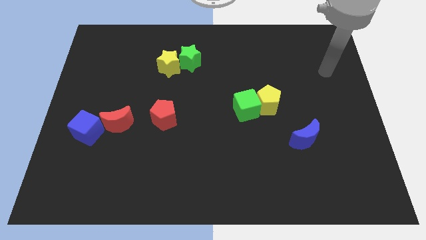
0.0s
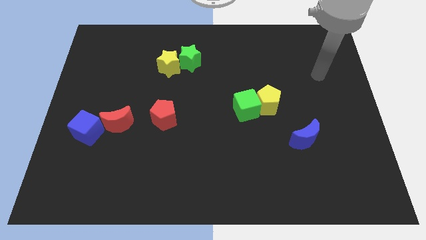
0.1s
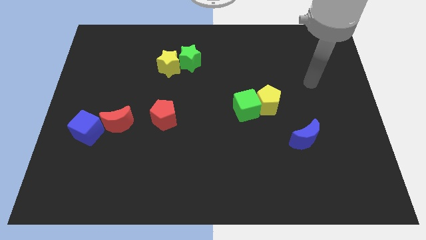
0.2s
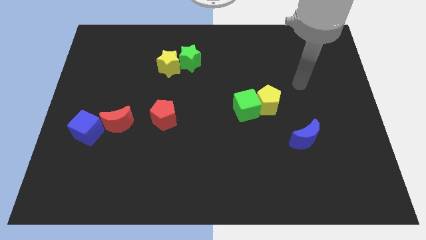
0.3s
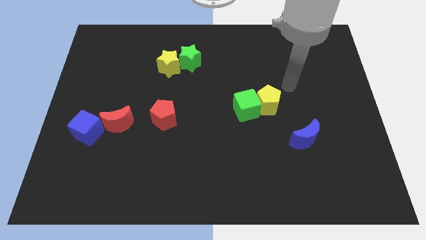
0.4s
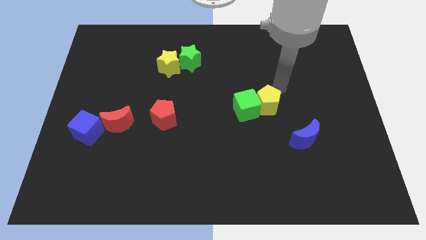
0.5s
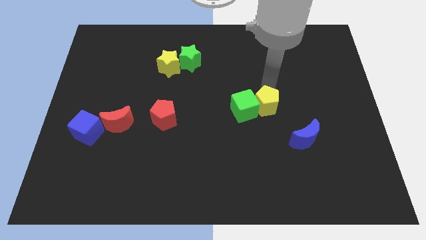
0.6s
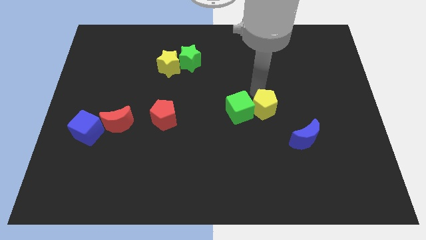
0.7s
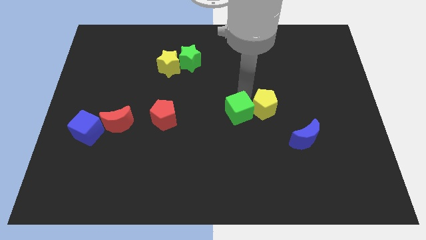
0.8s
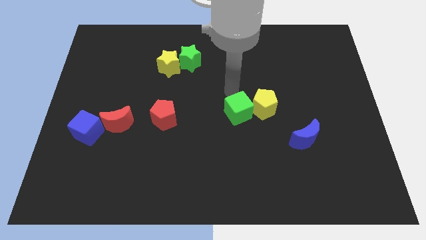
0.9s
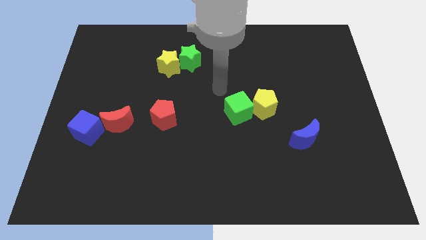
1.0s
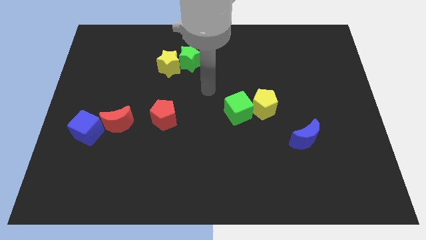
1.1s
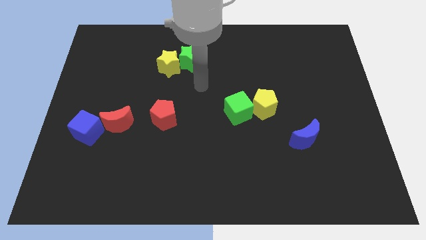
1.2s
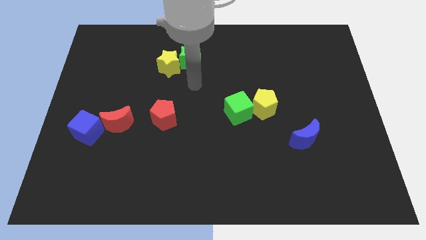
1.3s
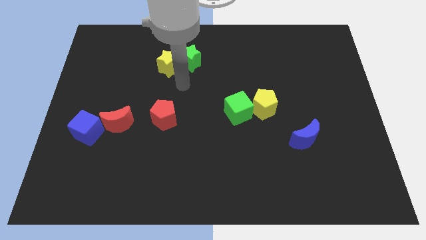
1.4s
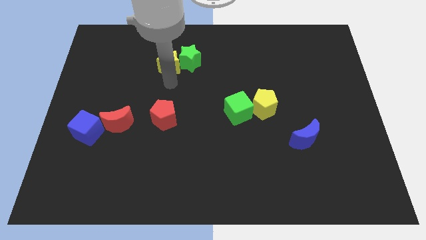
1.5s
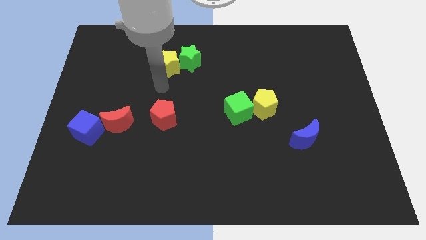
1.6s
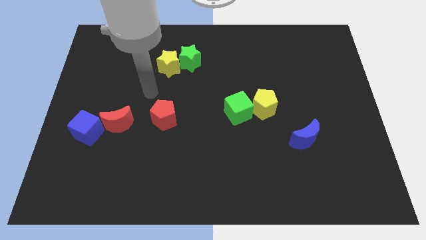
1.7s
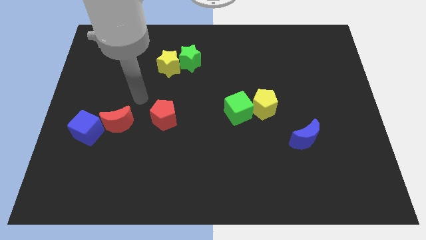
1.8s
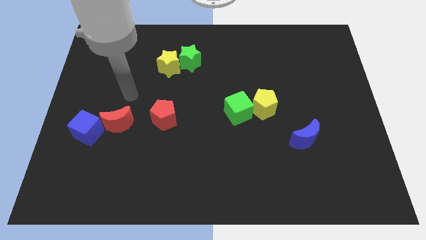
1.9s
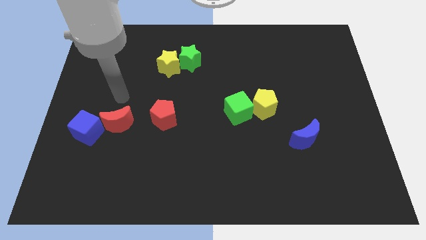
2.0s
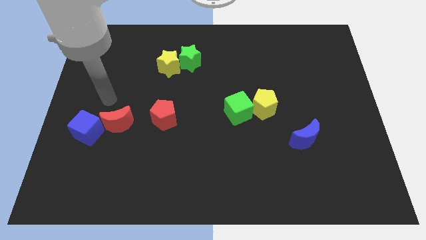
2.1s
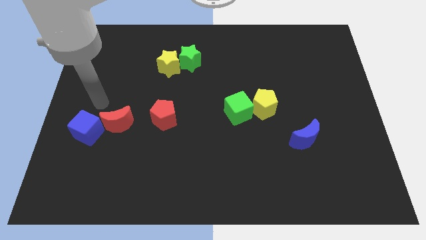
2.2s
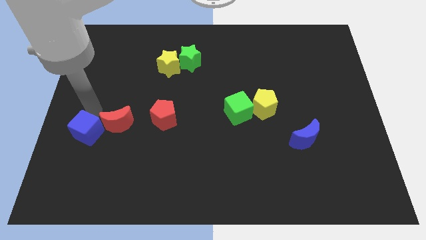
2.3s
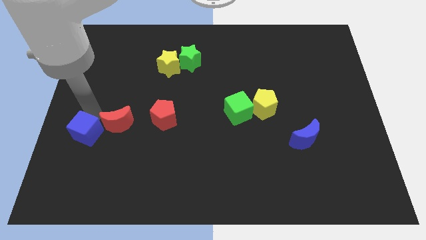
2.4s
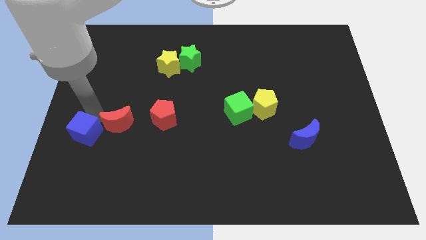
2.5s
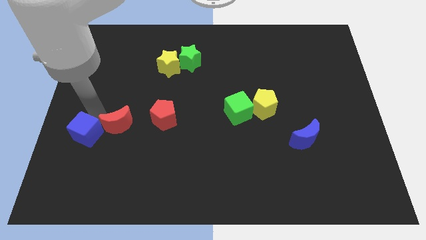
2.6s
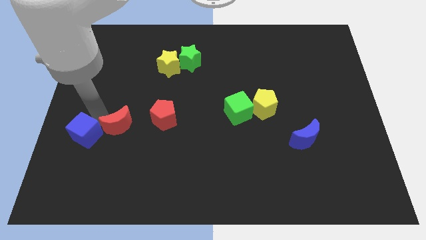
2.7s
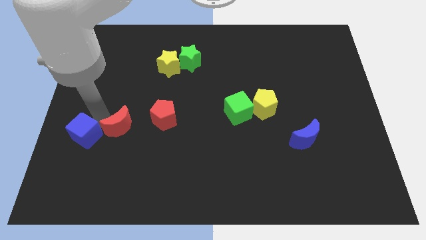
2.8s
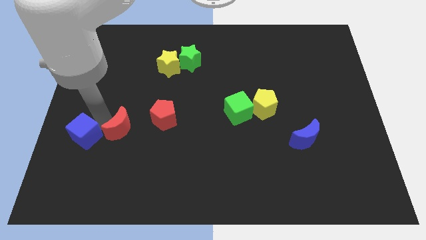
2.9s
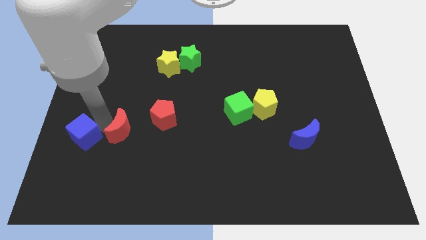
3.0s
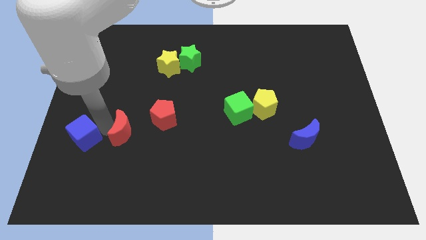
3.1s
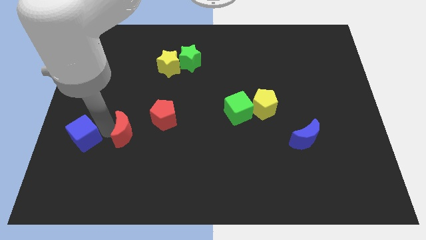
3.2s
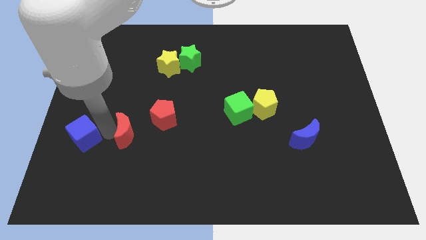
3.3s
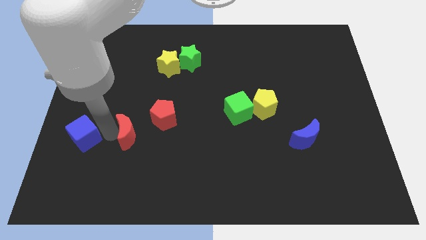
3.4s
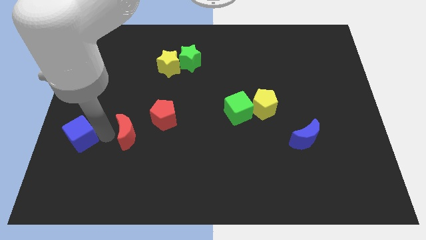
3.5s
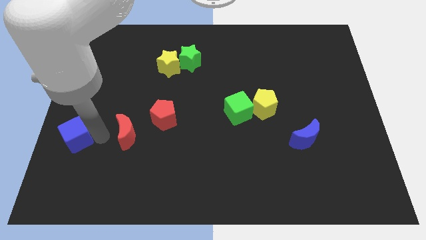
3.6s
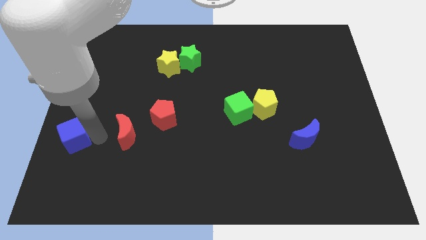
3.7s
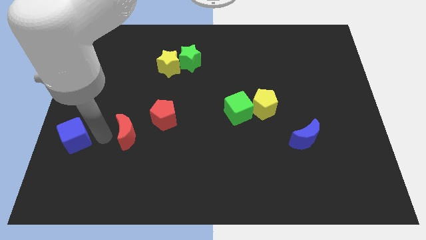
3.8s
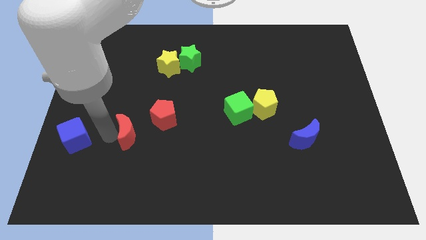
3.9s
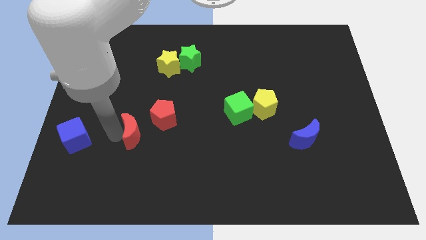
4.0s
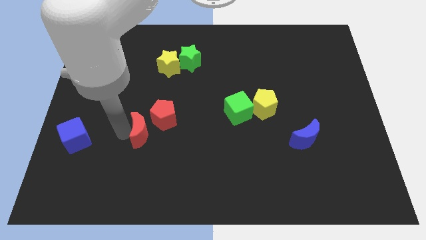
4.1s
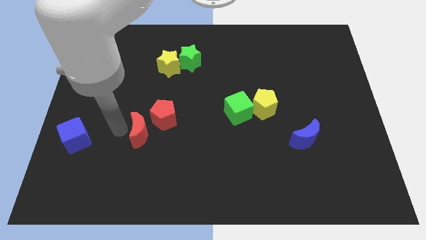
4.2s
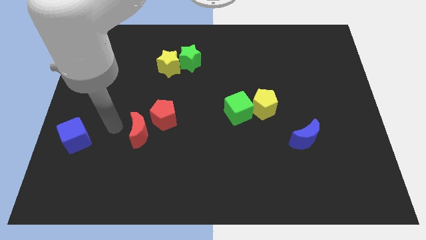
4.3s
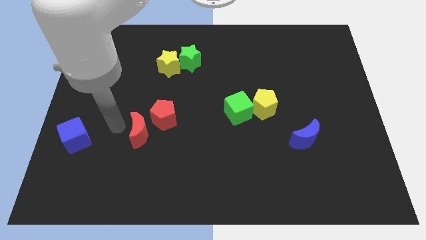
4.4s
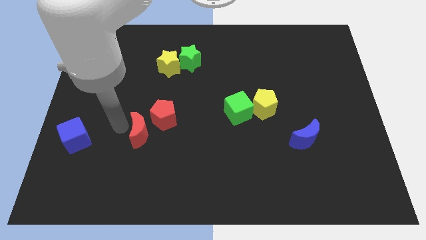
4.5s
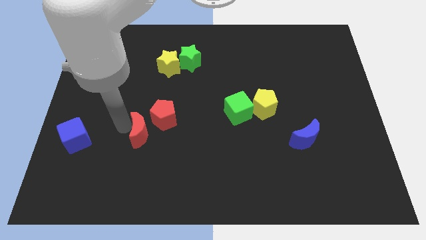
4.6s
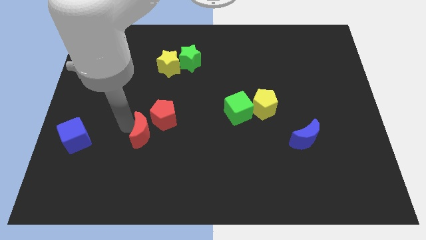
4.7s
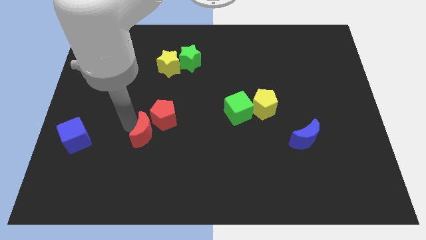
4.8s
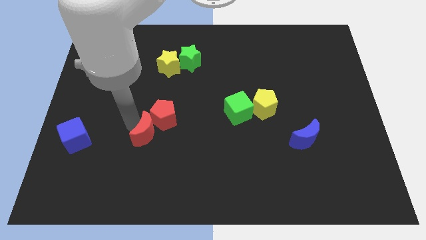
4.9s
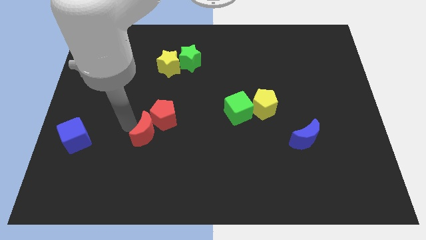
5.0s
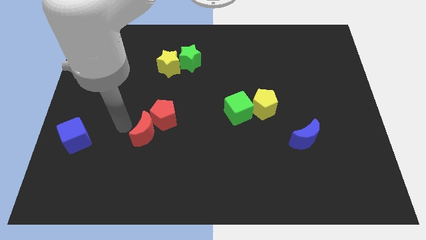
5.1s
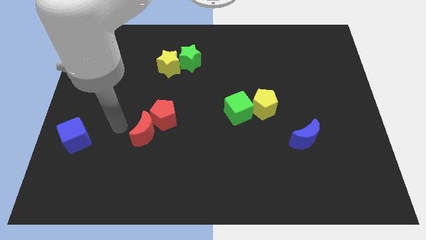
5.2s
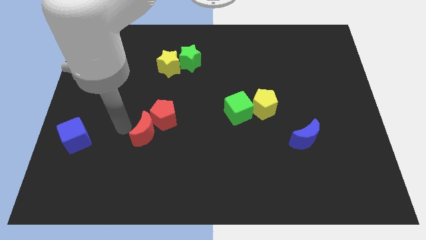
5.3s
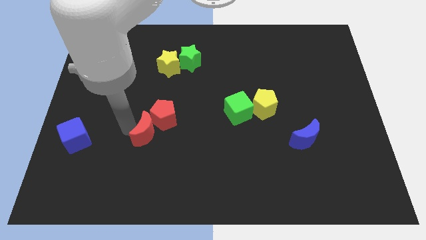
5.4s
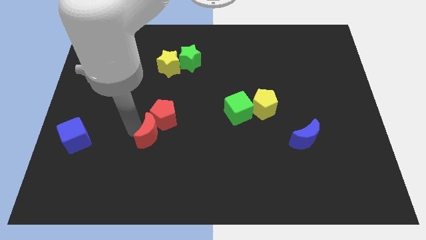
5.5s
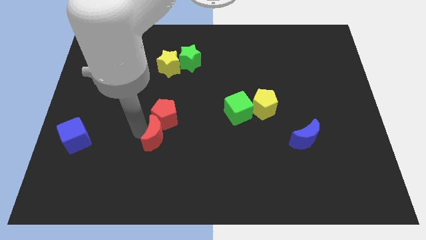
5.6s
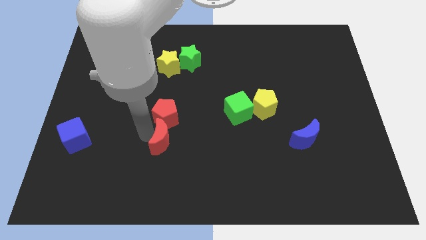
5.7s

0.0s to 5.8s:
move the red moon to the bottom right side of the red pentagon
